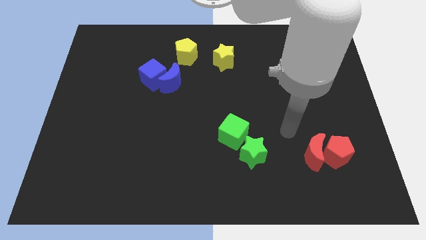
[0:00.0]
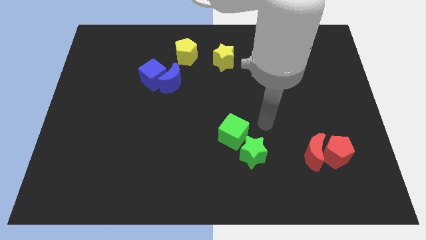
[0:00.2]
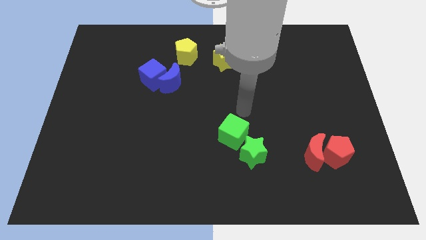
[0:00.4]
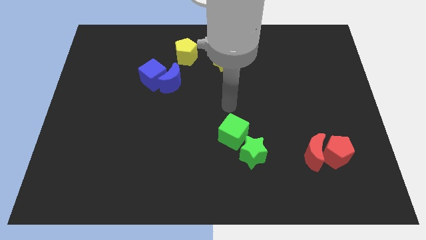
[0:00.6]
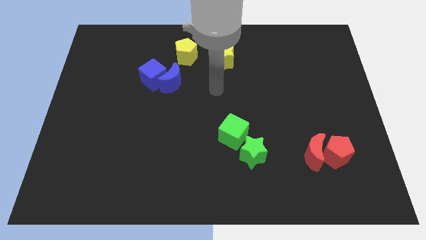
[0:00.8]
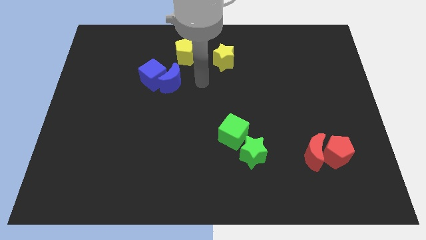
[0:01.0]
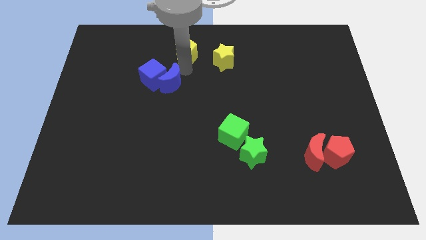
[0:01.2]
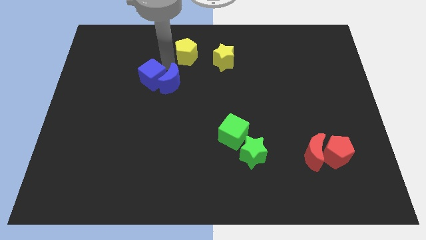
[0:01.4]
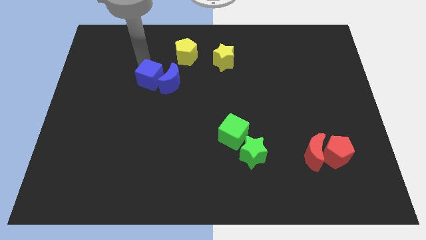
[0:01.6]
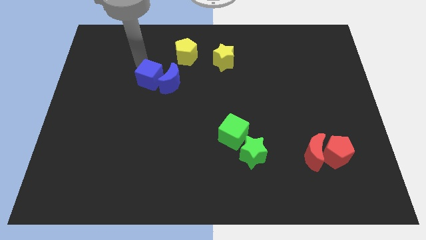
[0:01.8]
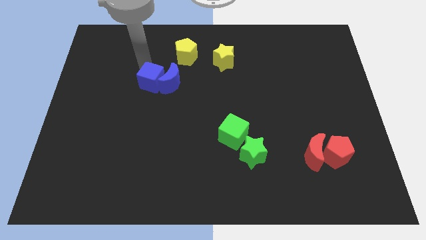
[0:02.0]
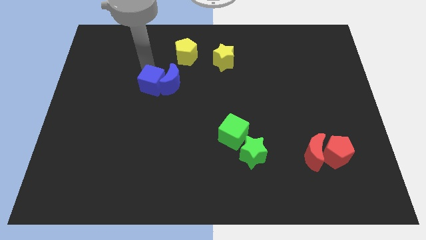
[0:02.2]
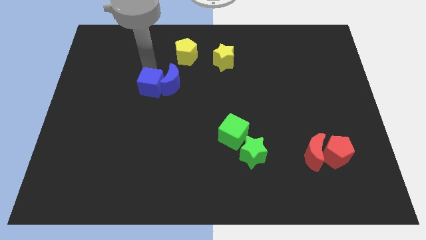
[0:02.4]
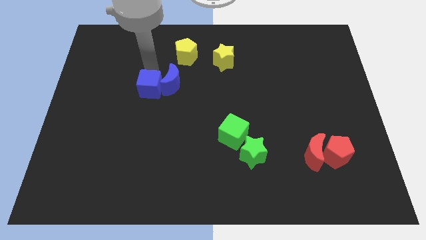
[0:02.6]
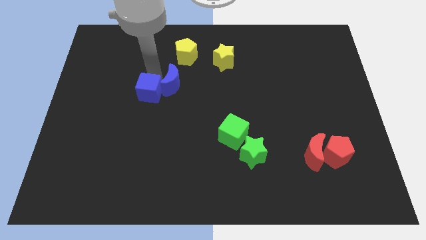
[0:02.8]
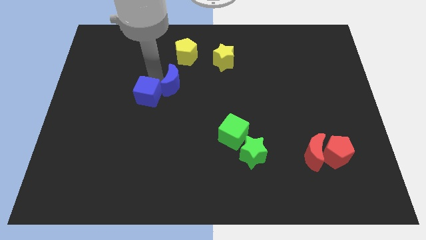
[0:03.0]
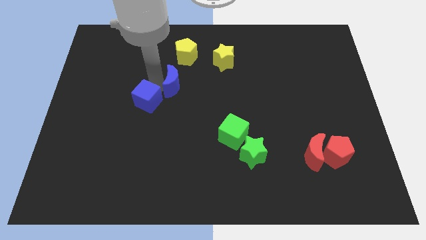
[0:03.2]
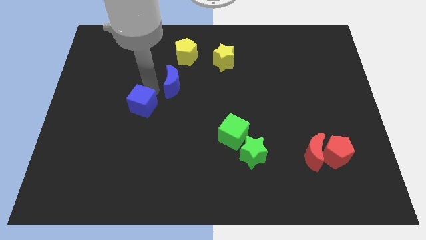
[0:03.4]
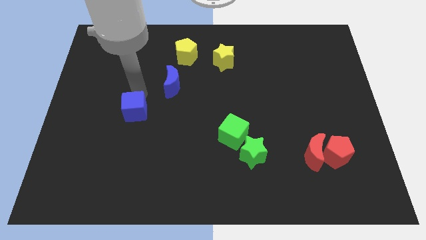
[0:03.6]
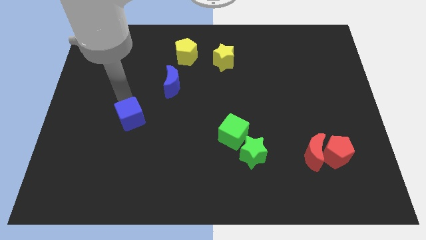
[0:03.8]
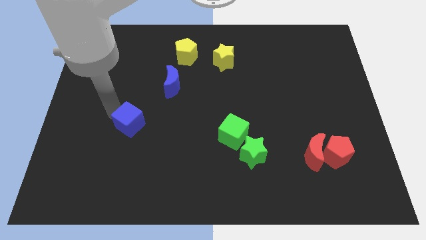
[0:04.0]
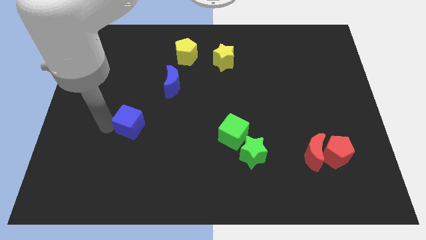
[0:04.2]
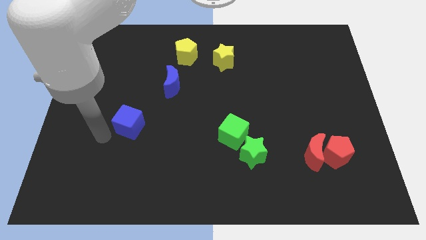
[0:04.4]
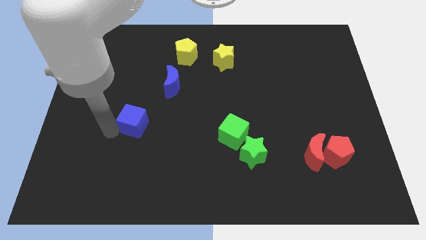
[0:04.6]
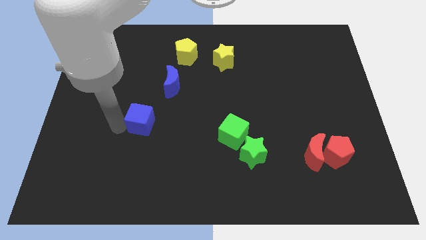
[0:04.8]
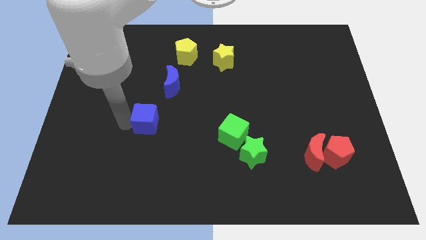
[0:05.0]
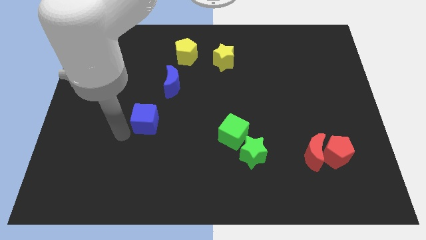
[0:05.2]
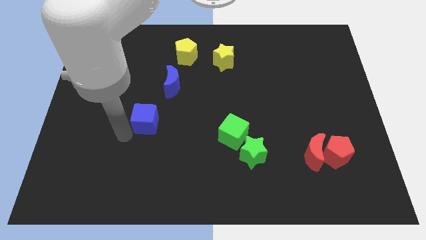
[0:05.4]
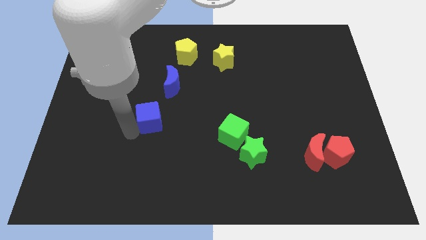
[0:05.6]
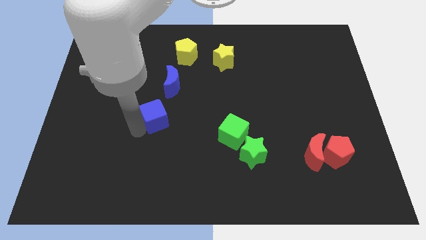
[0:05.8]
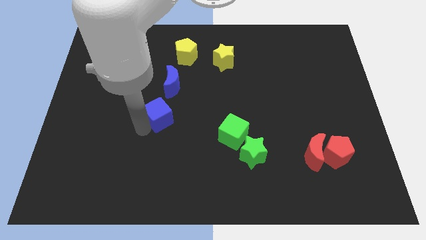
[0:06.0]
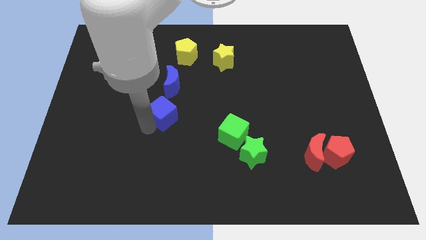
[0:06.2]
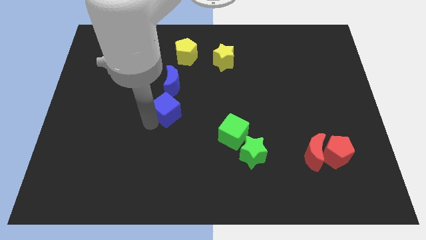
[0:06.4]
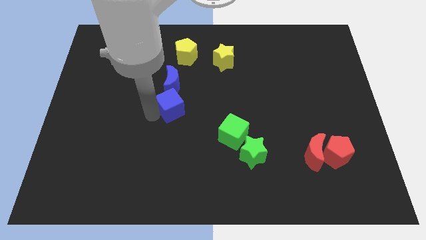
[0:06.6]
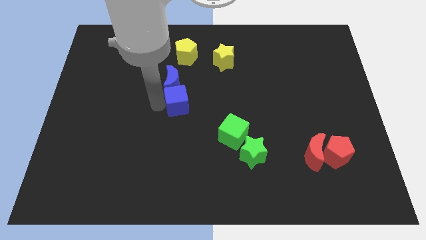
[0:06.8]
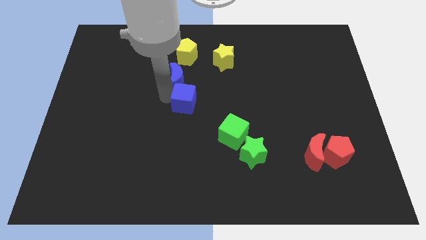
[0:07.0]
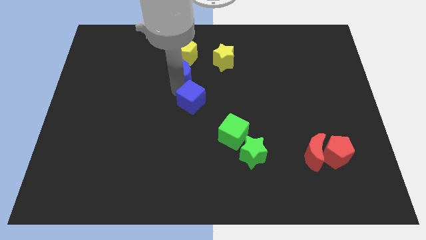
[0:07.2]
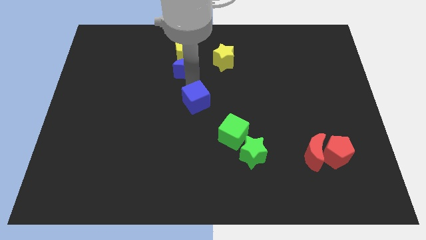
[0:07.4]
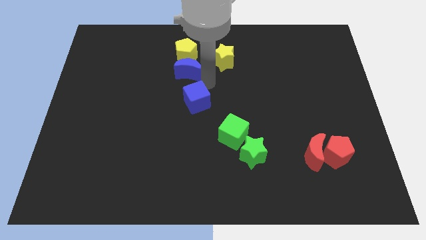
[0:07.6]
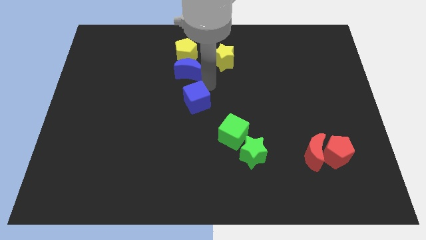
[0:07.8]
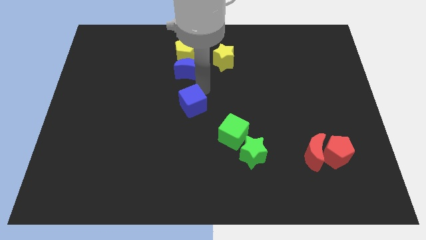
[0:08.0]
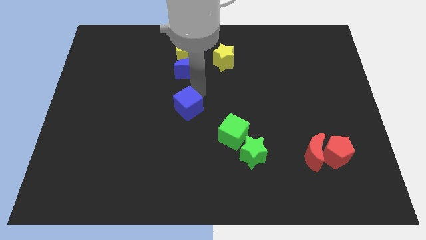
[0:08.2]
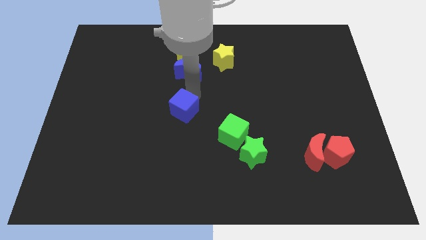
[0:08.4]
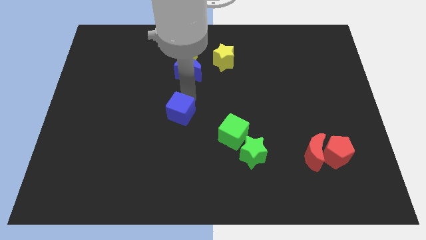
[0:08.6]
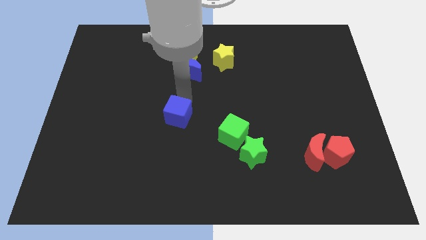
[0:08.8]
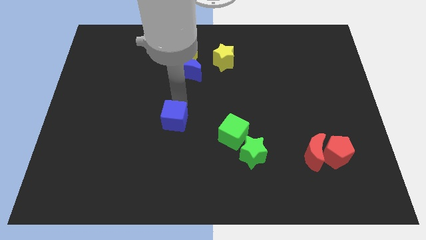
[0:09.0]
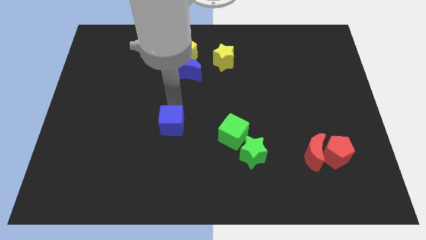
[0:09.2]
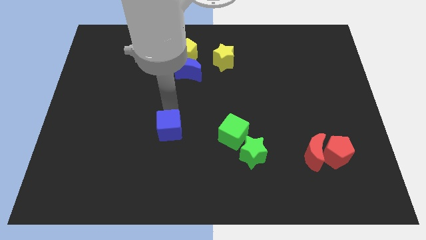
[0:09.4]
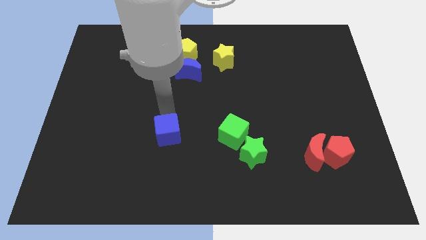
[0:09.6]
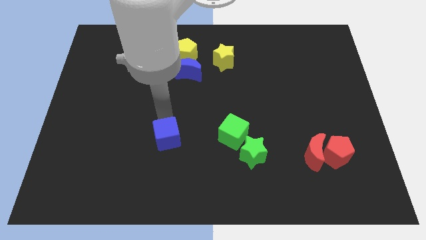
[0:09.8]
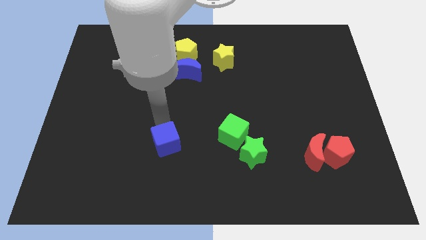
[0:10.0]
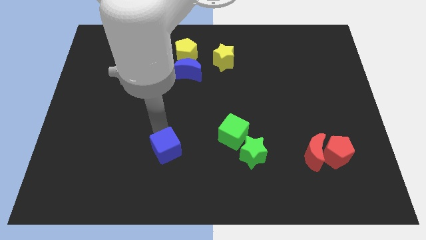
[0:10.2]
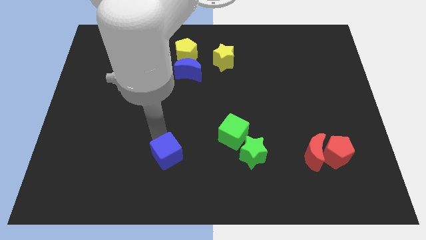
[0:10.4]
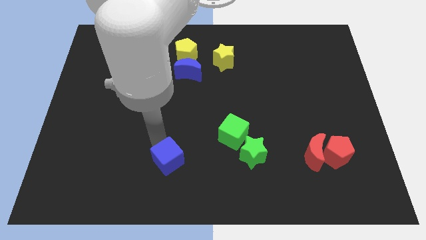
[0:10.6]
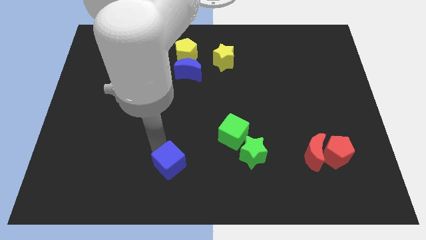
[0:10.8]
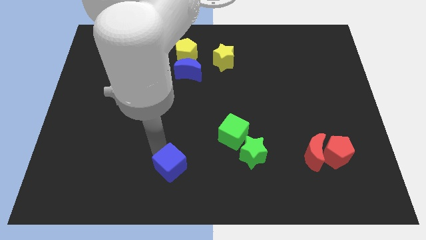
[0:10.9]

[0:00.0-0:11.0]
slide the blue cube to the bottom side

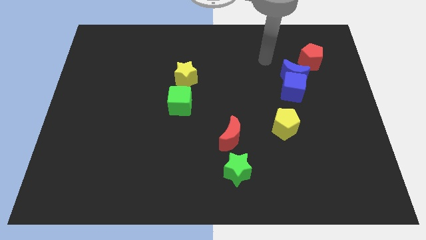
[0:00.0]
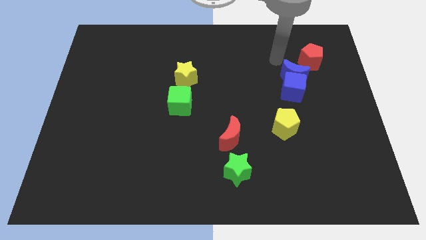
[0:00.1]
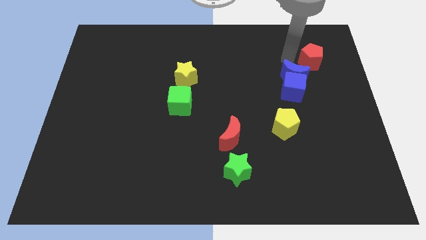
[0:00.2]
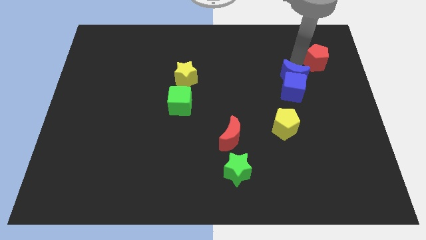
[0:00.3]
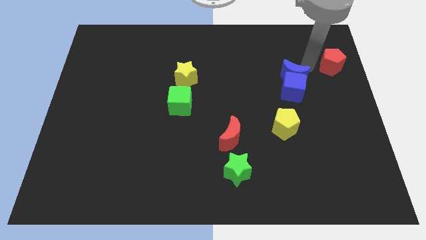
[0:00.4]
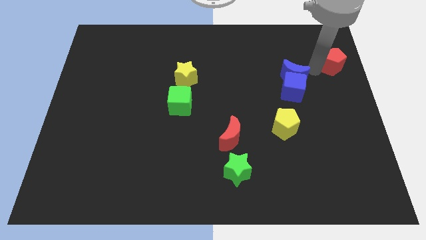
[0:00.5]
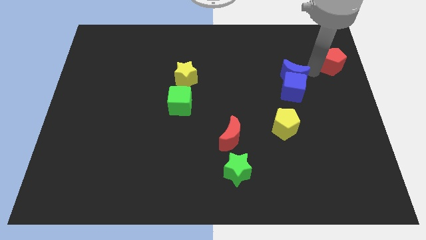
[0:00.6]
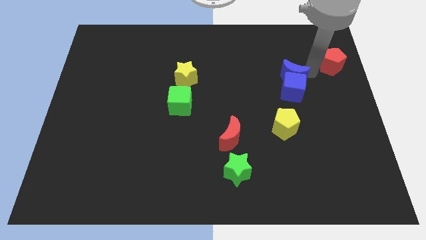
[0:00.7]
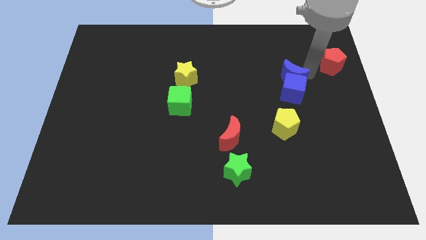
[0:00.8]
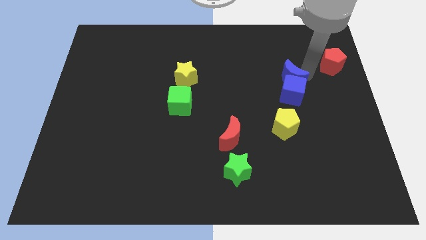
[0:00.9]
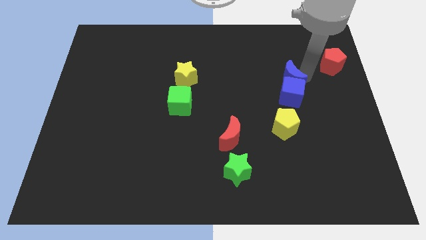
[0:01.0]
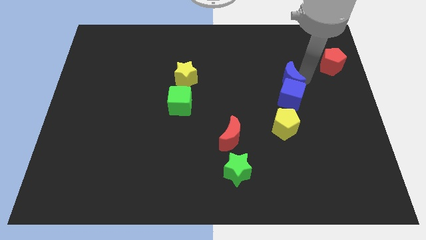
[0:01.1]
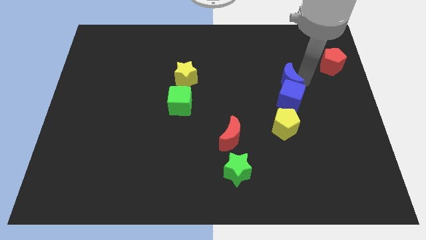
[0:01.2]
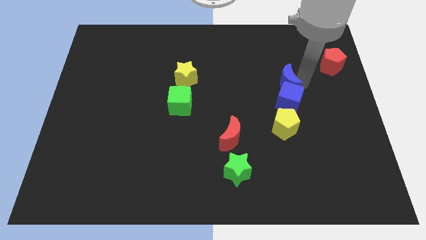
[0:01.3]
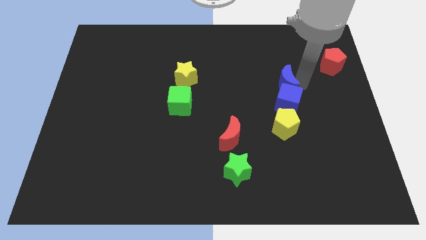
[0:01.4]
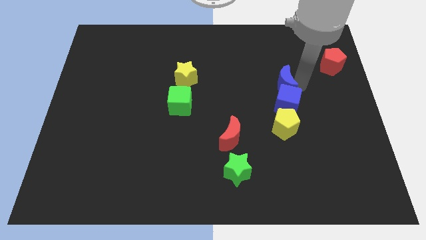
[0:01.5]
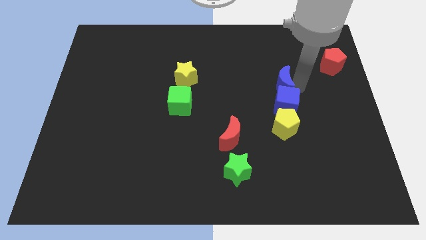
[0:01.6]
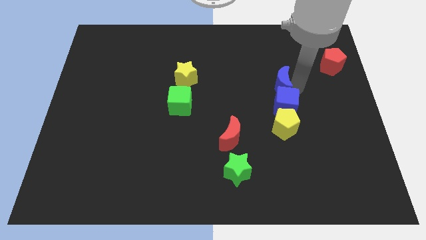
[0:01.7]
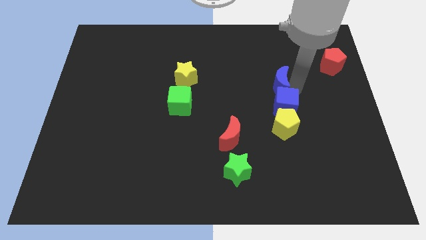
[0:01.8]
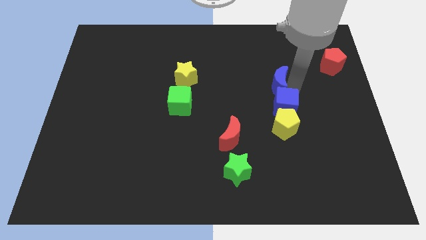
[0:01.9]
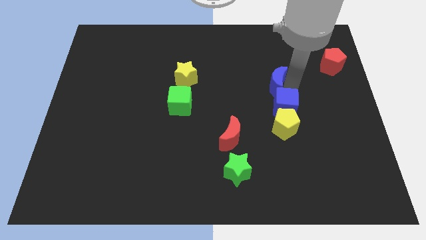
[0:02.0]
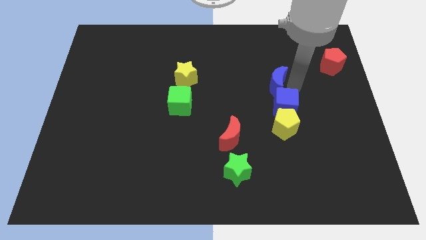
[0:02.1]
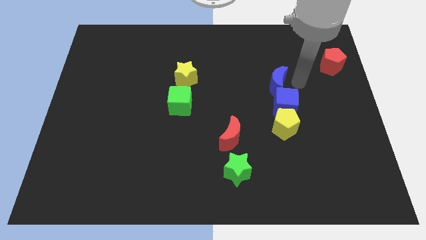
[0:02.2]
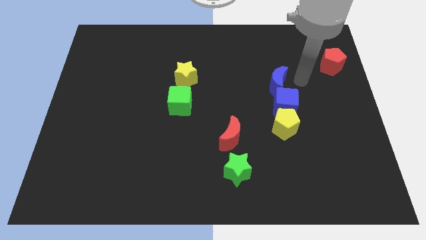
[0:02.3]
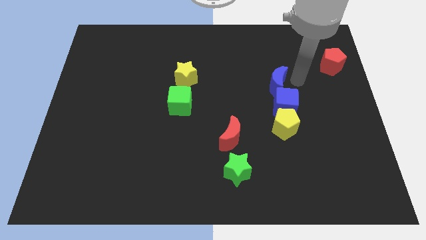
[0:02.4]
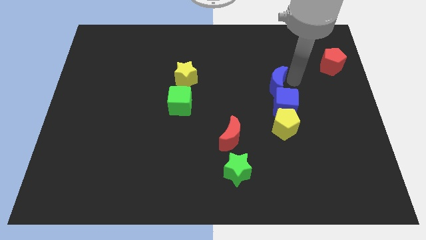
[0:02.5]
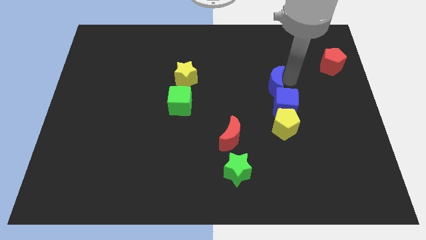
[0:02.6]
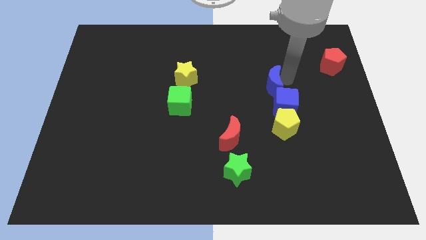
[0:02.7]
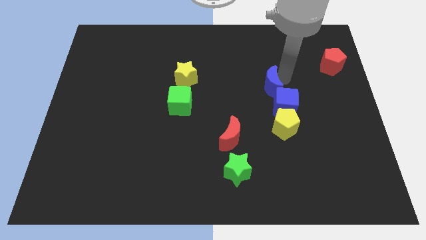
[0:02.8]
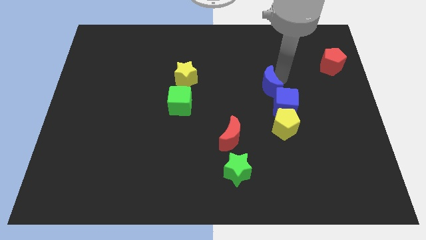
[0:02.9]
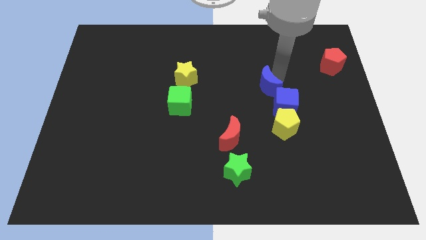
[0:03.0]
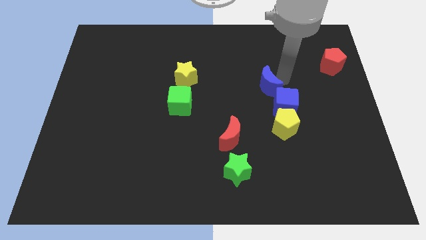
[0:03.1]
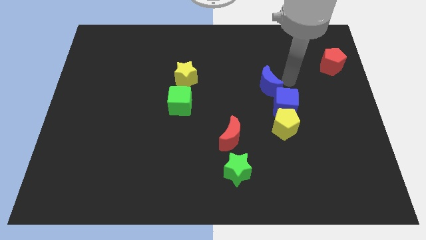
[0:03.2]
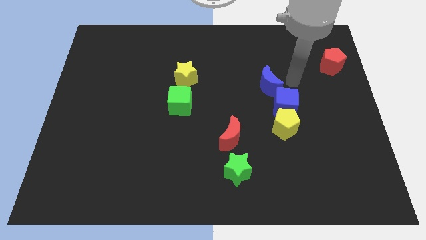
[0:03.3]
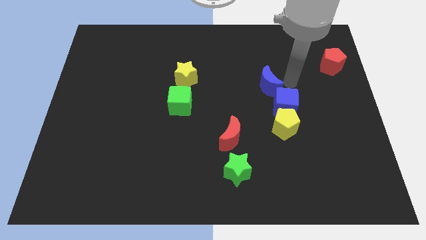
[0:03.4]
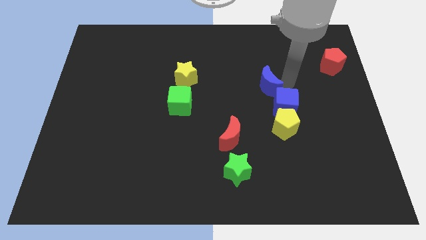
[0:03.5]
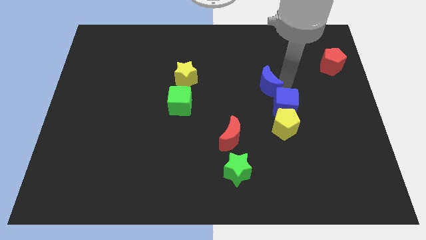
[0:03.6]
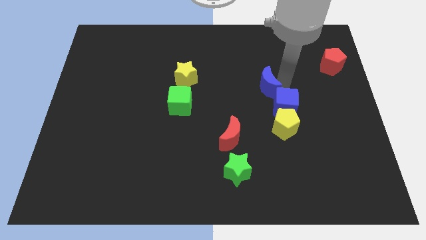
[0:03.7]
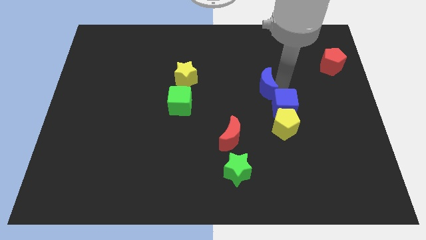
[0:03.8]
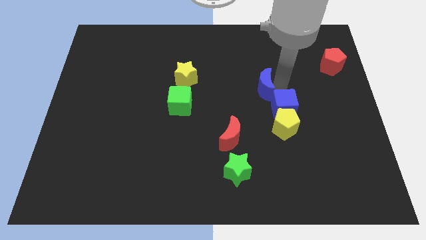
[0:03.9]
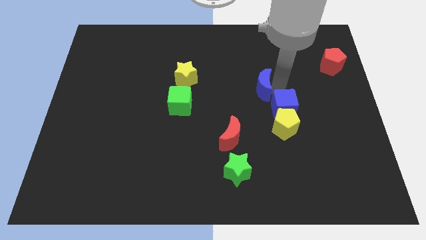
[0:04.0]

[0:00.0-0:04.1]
move the blue moon to the middle of the board
